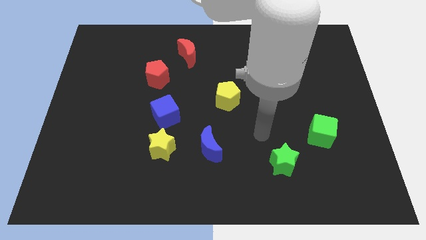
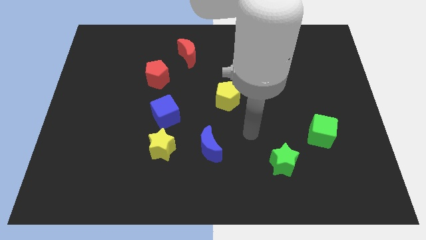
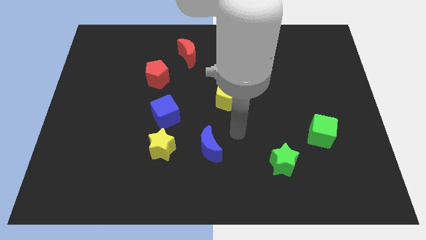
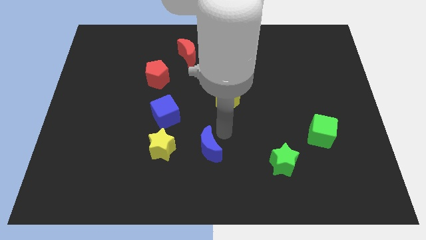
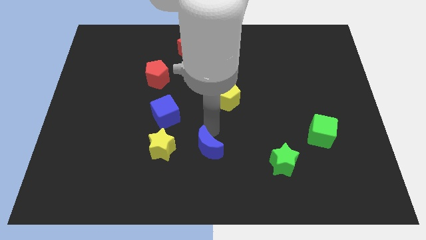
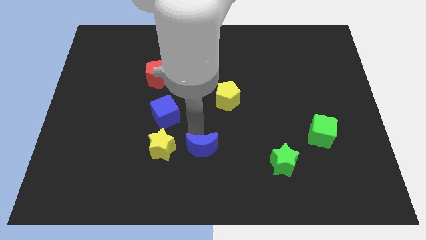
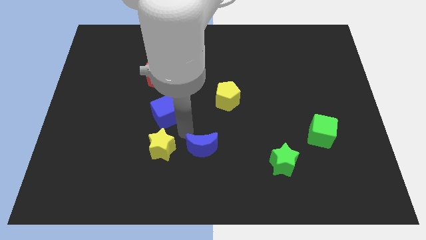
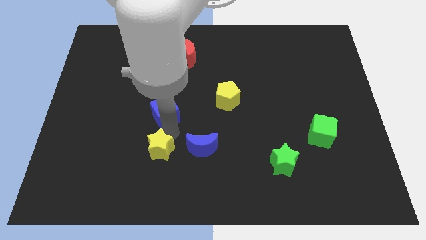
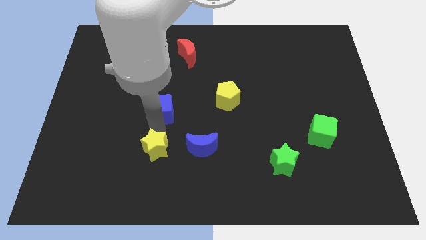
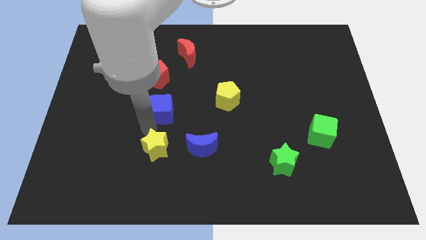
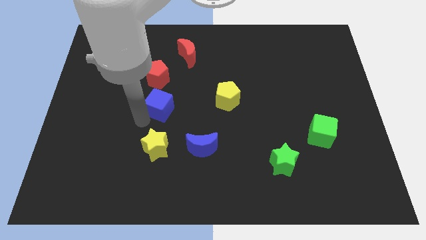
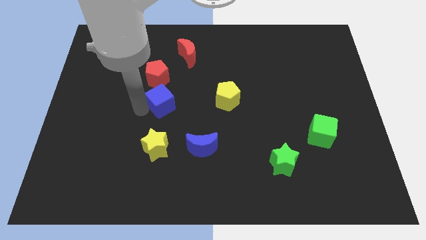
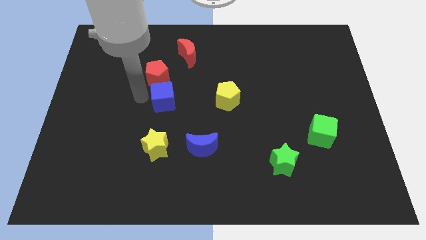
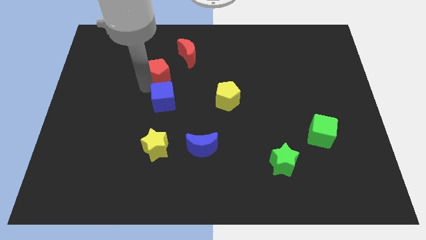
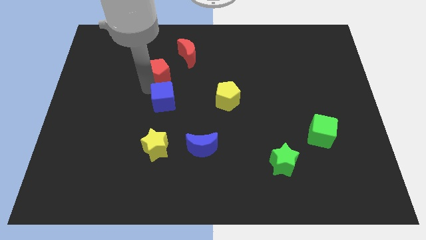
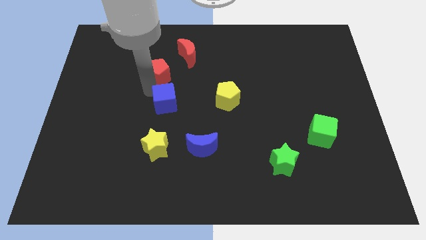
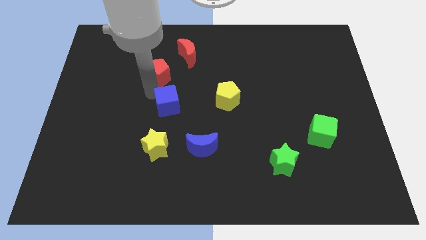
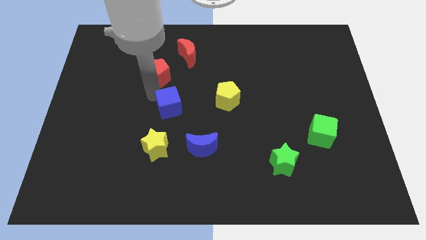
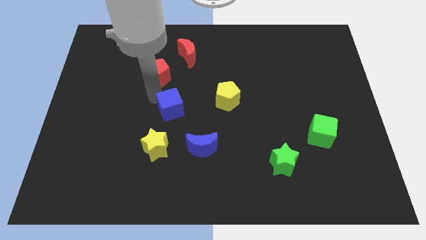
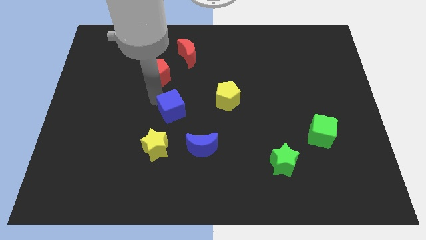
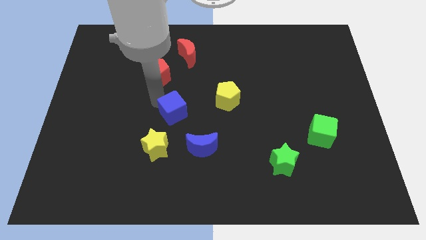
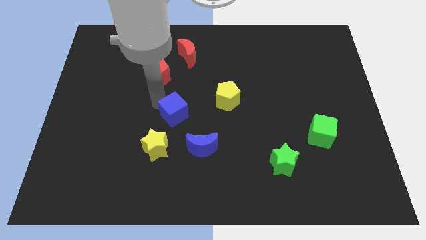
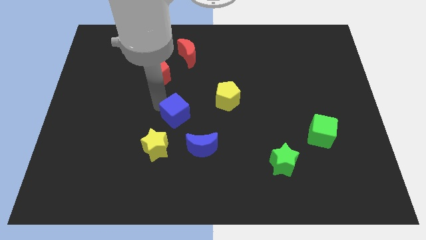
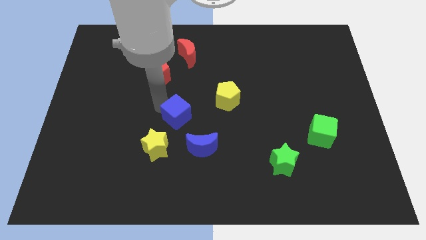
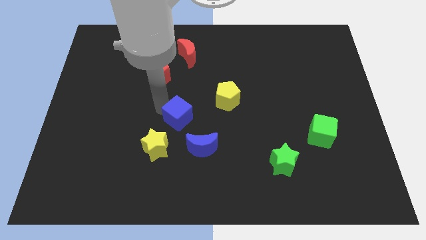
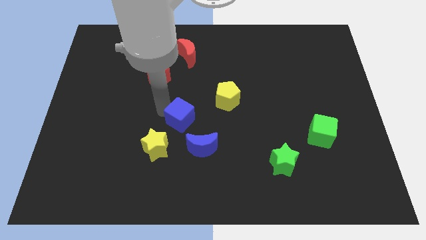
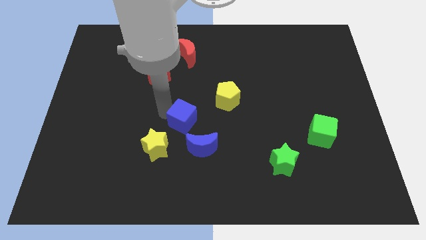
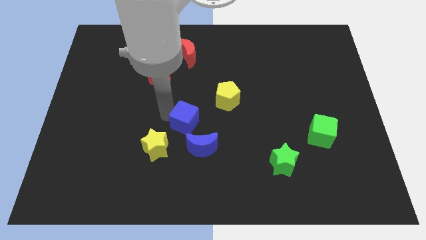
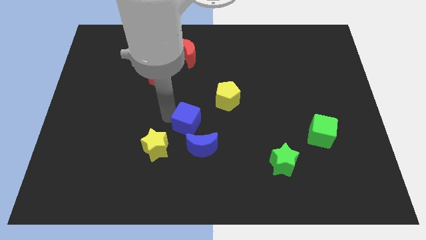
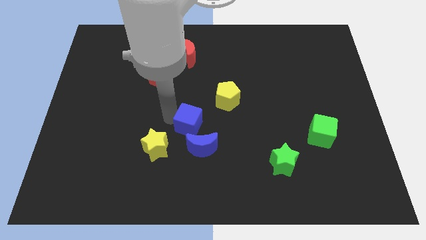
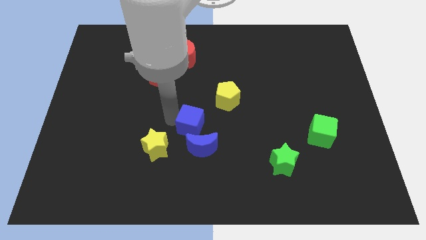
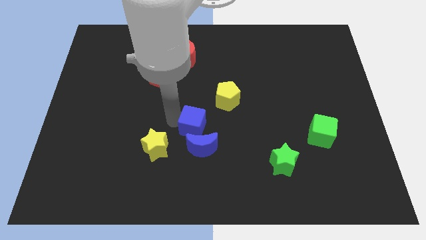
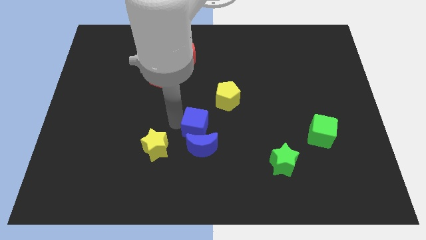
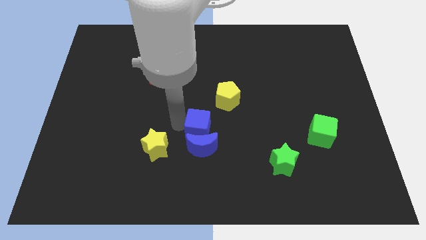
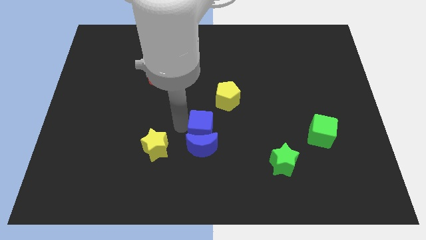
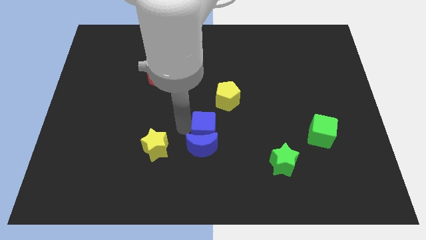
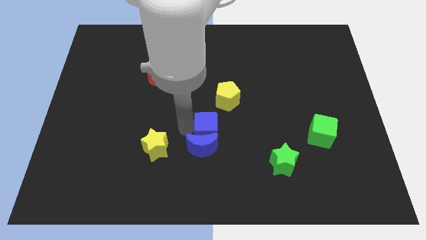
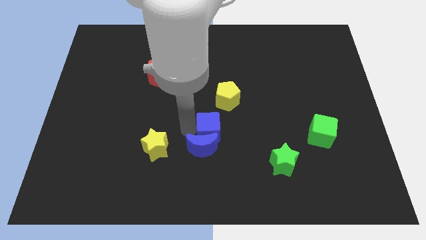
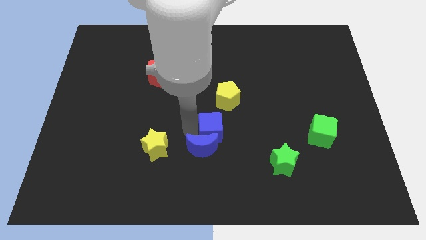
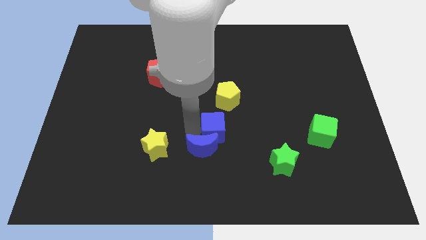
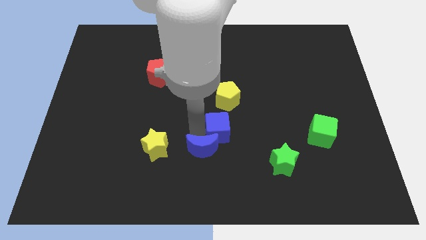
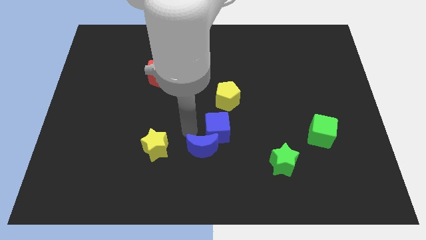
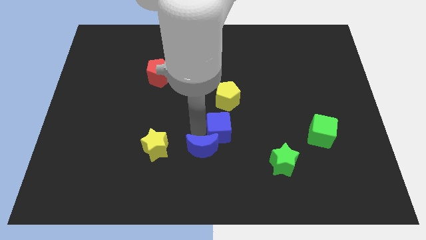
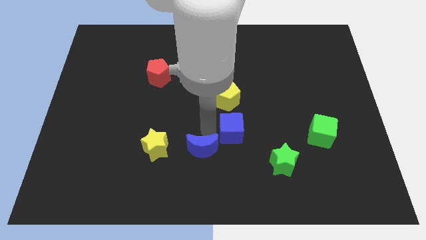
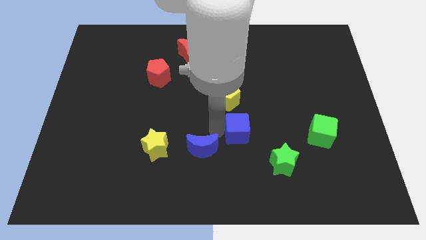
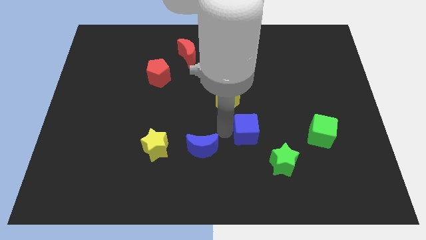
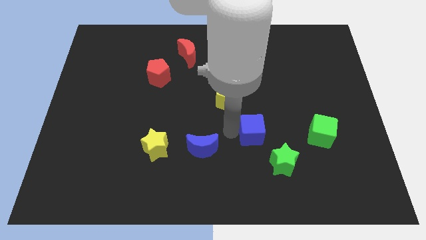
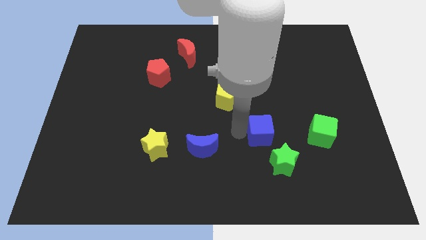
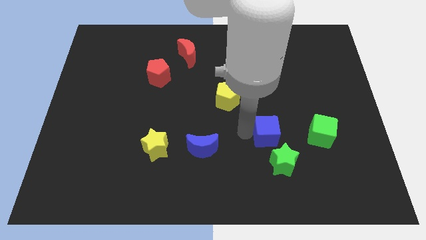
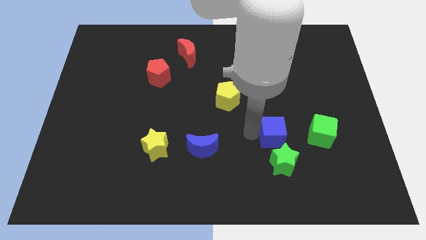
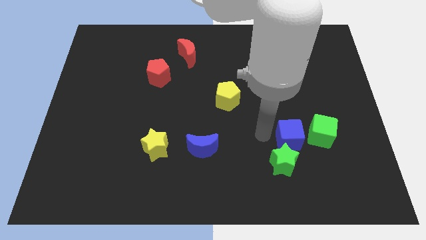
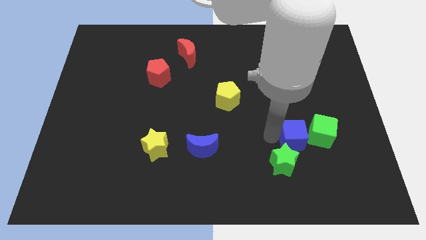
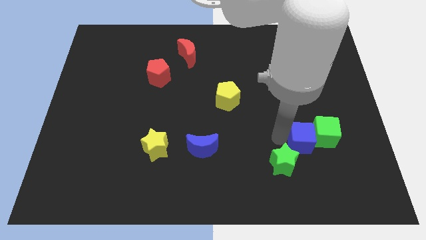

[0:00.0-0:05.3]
move the blue cube towards the green cube

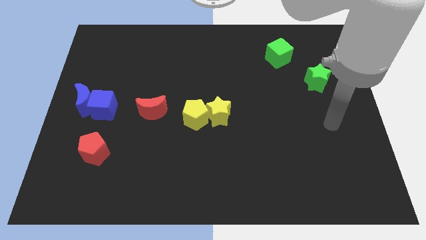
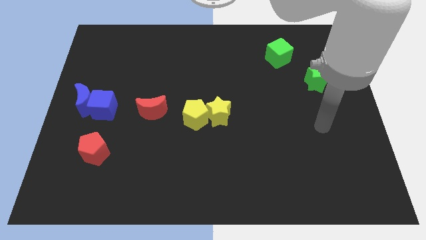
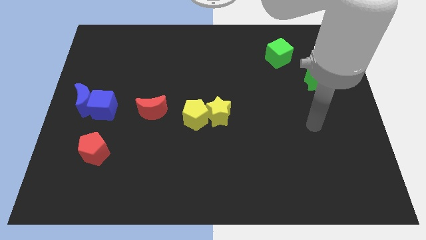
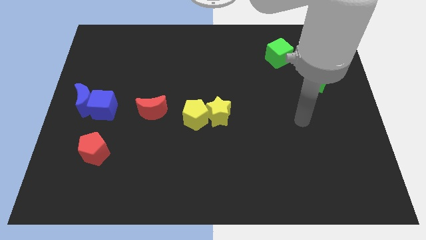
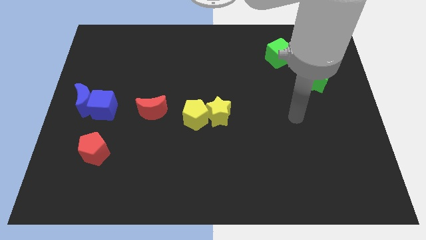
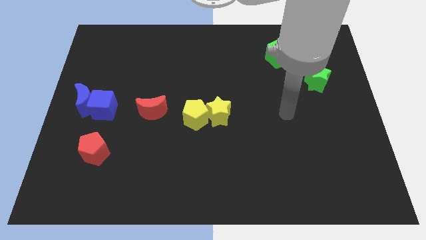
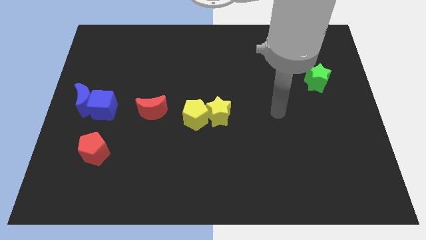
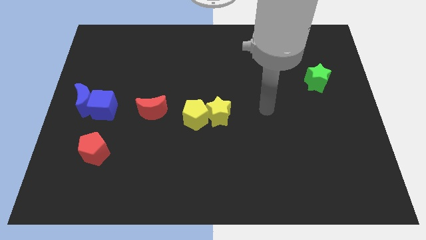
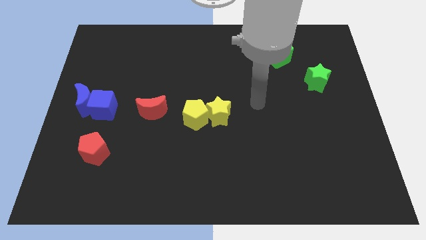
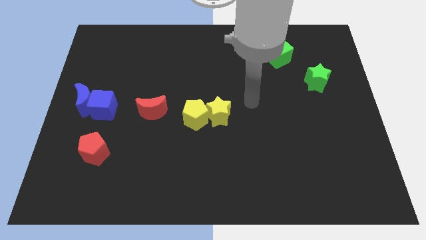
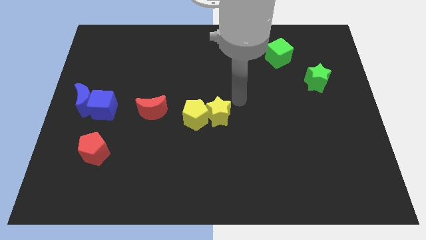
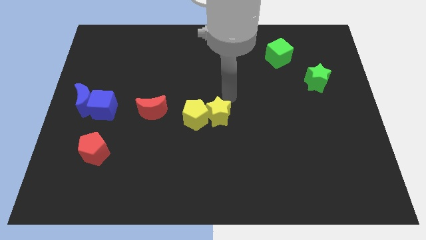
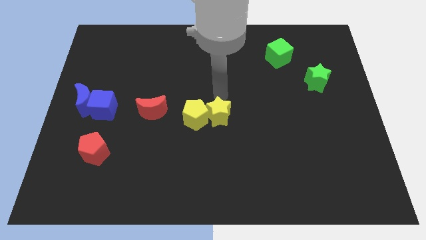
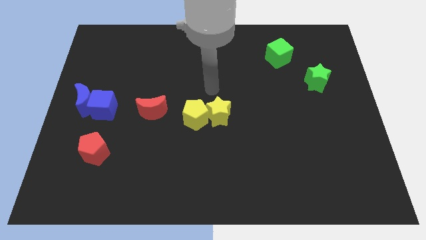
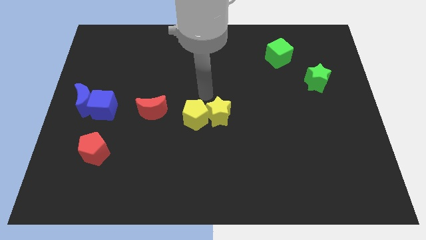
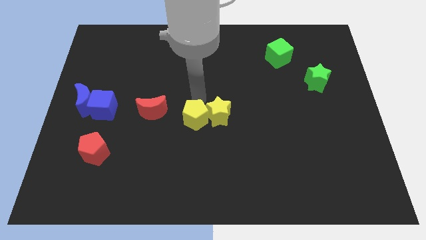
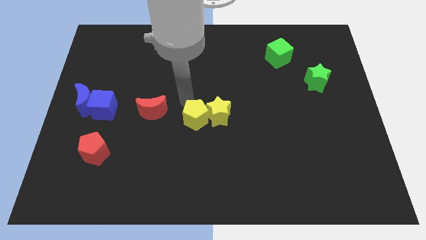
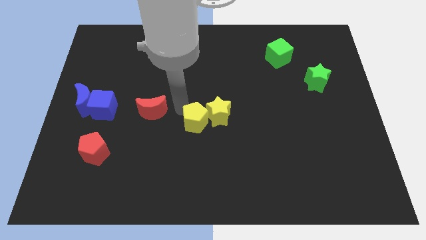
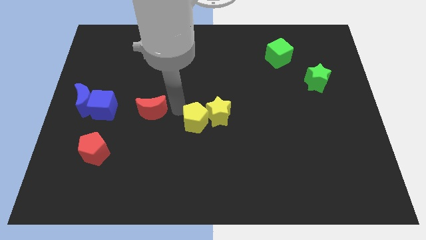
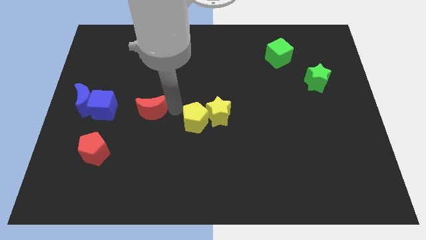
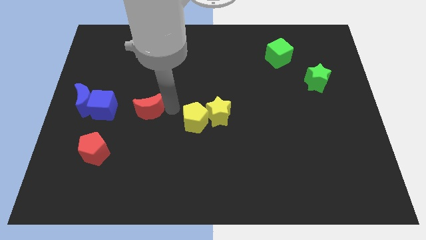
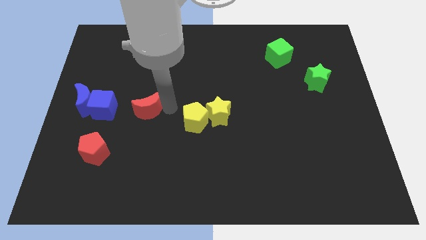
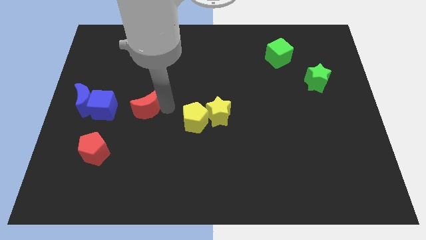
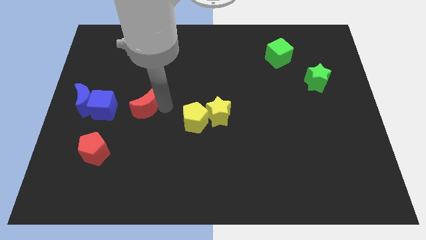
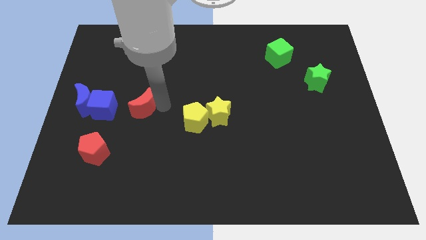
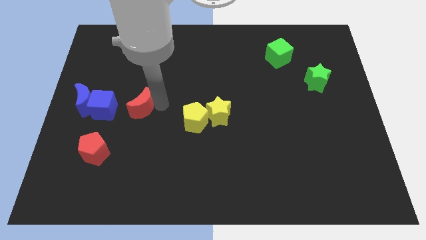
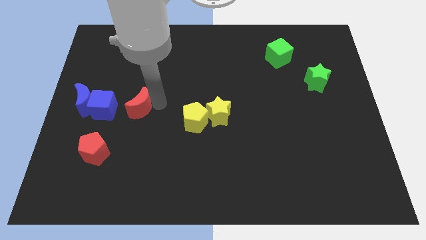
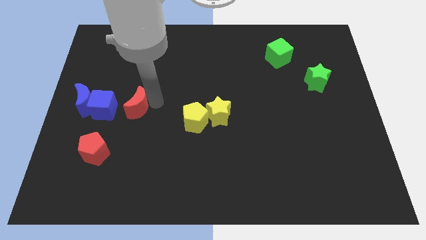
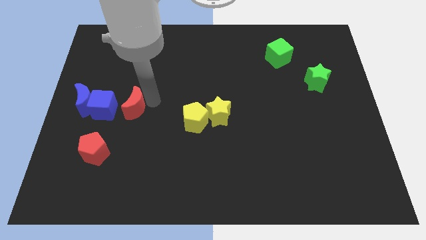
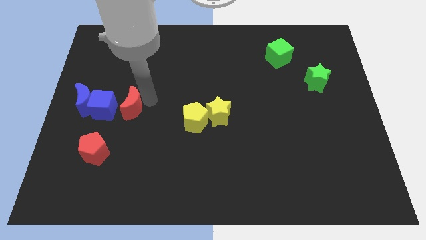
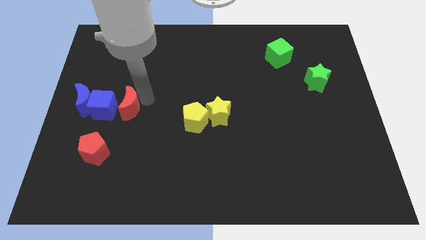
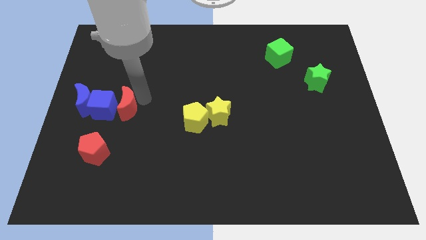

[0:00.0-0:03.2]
slide the red moon close to the blue cube
